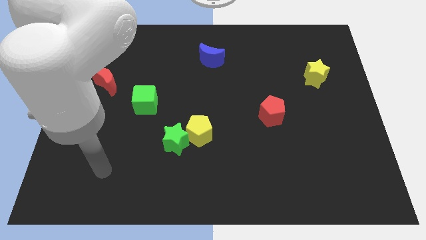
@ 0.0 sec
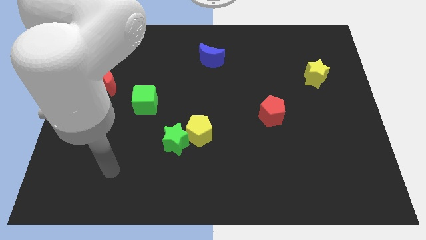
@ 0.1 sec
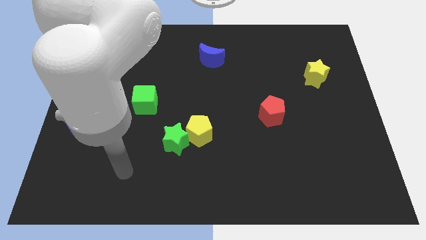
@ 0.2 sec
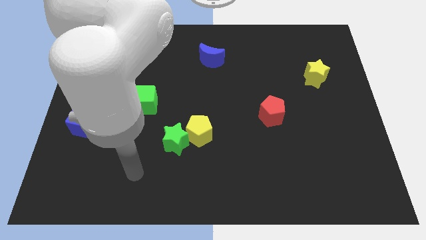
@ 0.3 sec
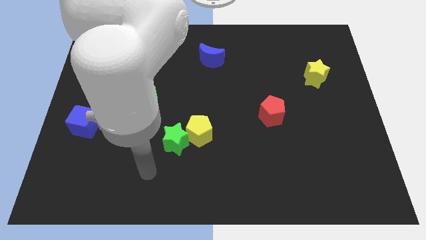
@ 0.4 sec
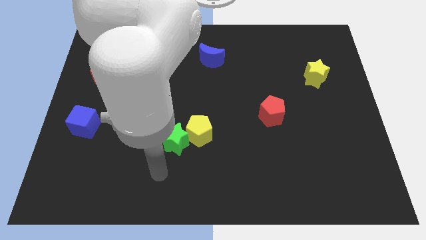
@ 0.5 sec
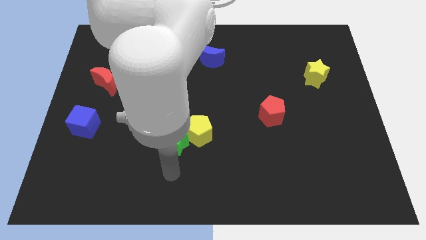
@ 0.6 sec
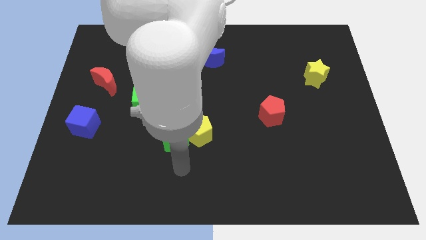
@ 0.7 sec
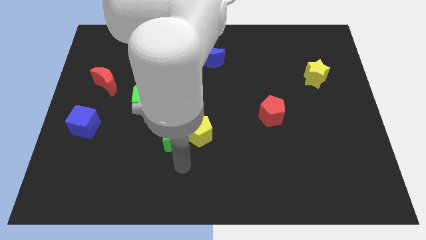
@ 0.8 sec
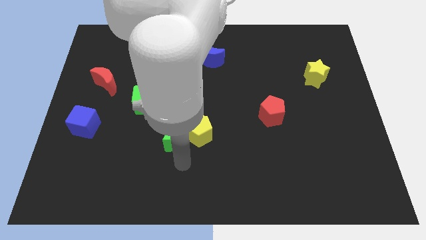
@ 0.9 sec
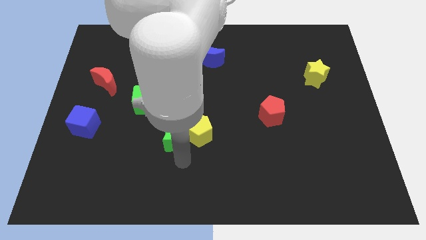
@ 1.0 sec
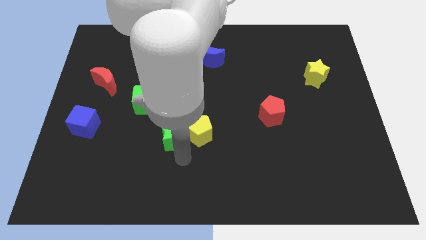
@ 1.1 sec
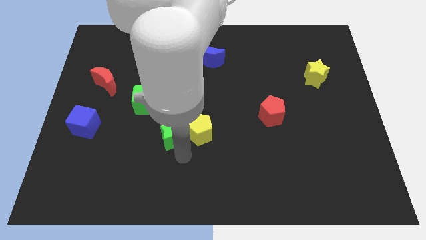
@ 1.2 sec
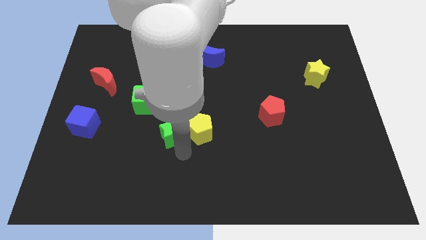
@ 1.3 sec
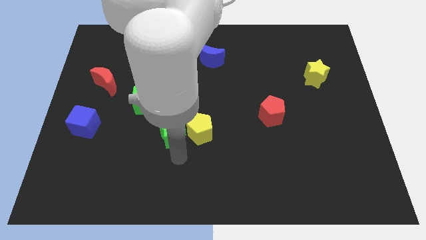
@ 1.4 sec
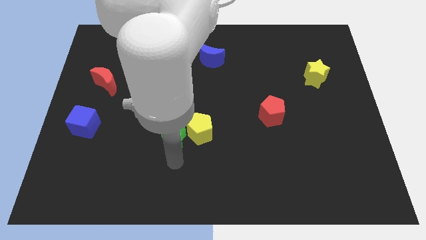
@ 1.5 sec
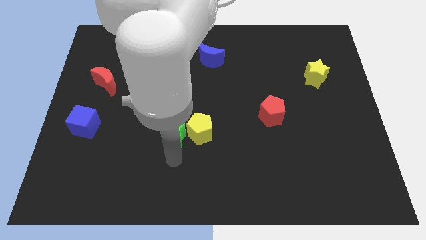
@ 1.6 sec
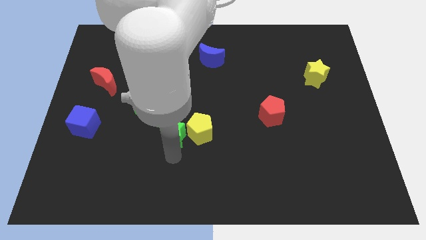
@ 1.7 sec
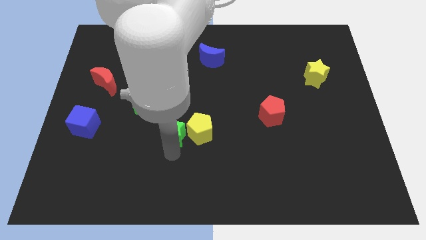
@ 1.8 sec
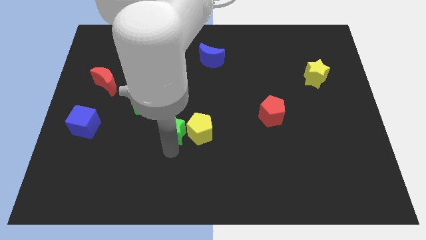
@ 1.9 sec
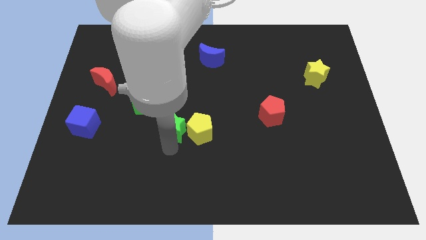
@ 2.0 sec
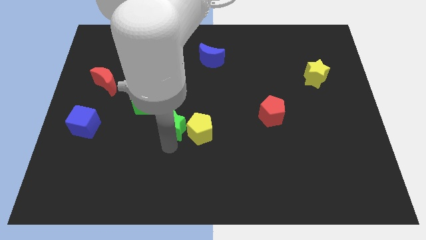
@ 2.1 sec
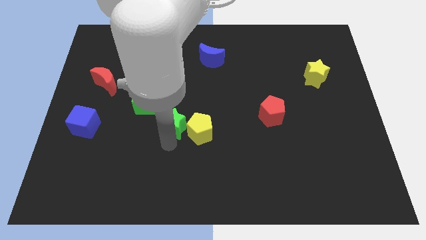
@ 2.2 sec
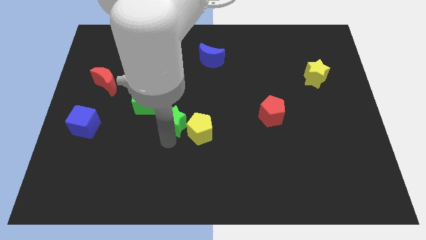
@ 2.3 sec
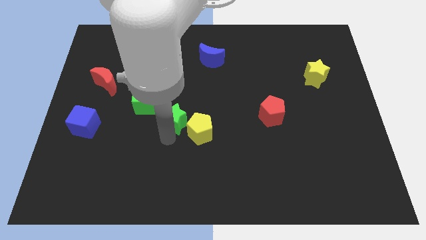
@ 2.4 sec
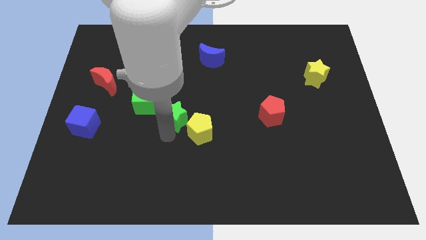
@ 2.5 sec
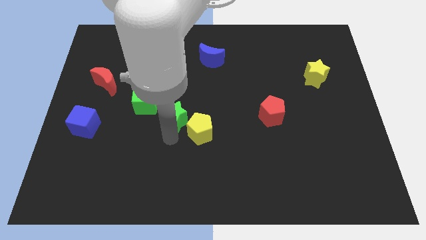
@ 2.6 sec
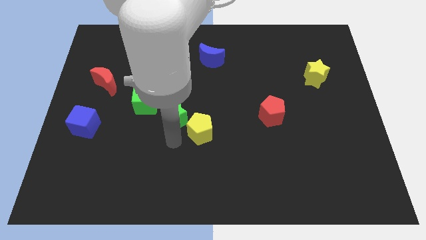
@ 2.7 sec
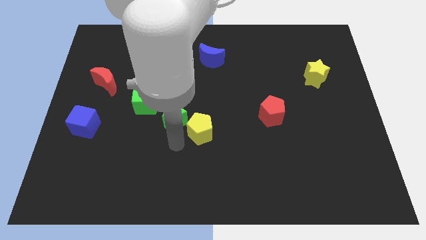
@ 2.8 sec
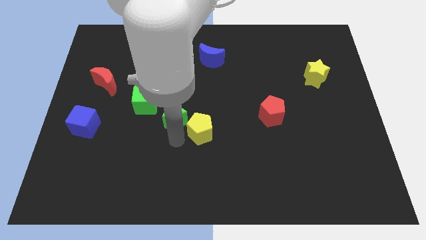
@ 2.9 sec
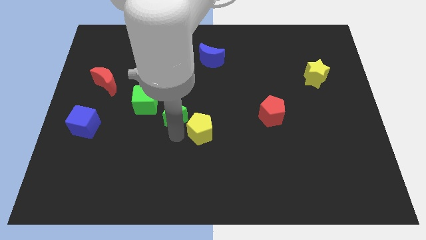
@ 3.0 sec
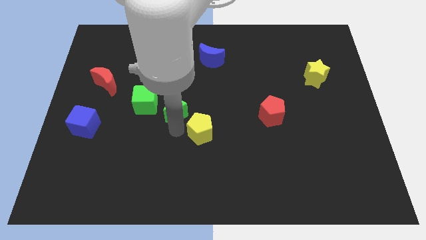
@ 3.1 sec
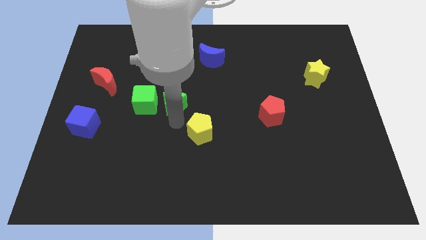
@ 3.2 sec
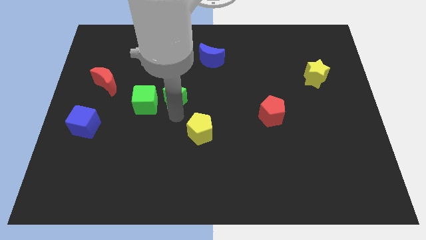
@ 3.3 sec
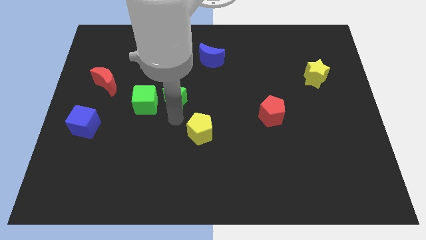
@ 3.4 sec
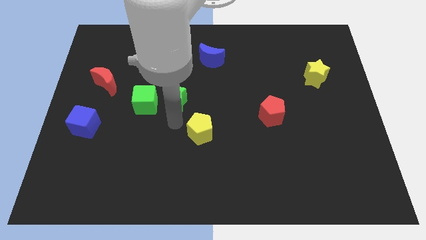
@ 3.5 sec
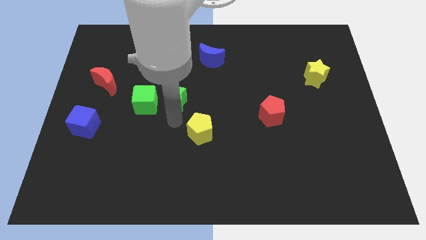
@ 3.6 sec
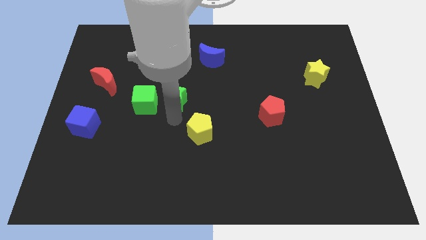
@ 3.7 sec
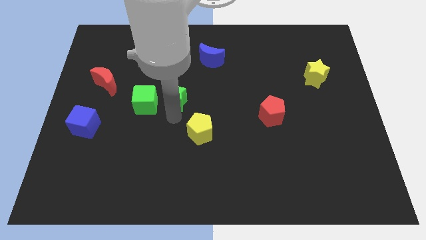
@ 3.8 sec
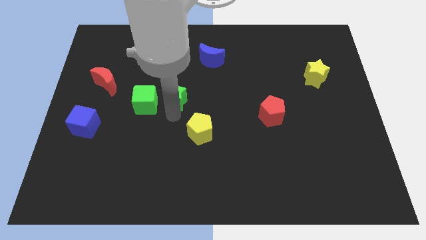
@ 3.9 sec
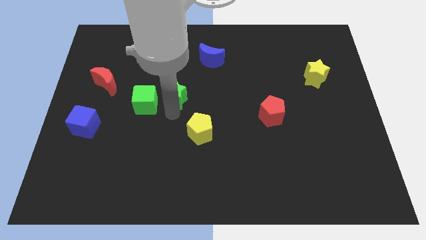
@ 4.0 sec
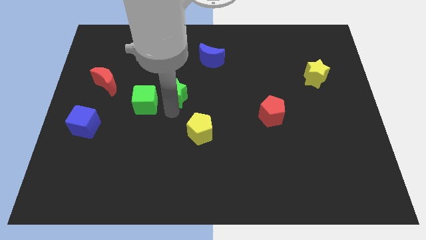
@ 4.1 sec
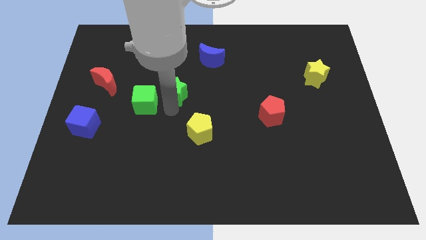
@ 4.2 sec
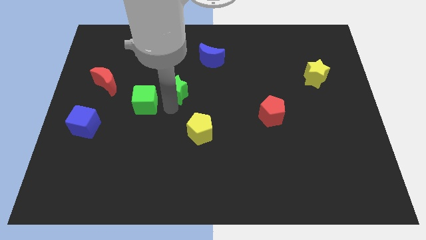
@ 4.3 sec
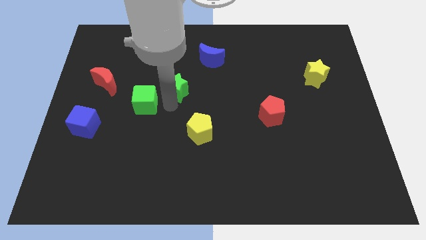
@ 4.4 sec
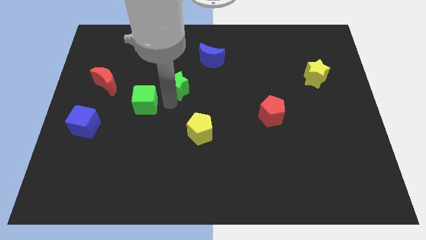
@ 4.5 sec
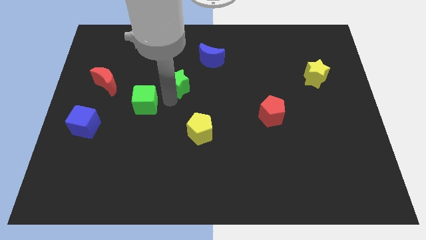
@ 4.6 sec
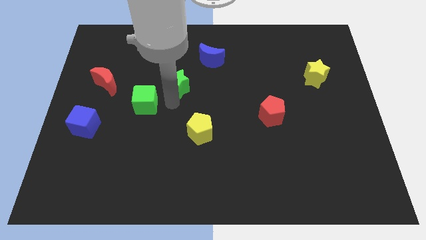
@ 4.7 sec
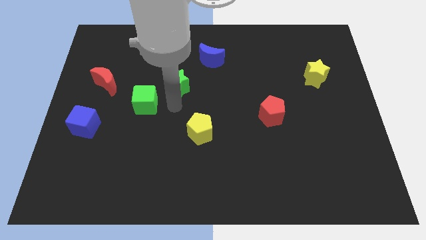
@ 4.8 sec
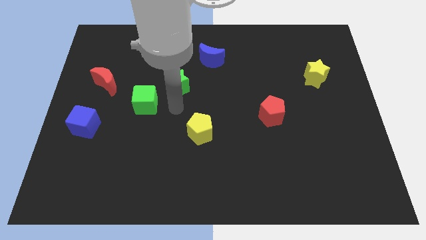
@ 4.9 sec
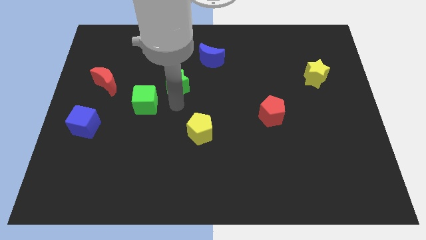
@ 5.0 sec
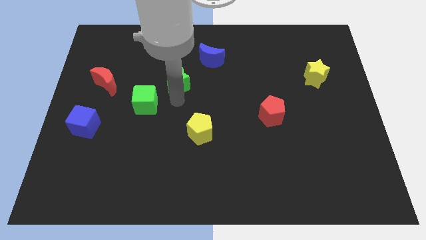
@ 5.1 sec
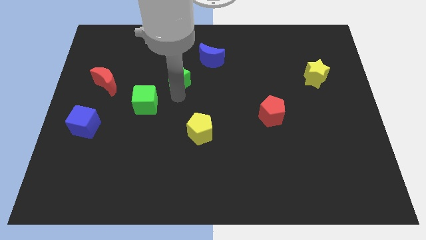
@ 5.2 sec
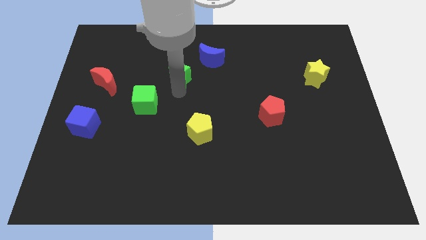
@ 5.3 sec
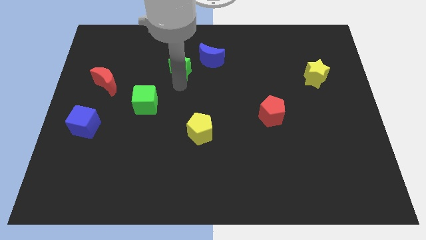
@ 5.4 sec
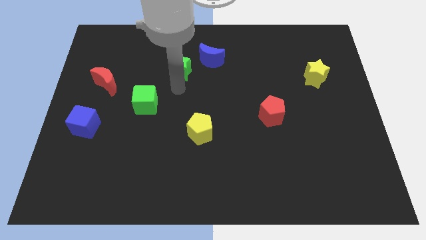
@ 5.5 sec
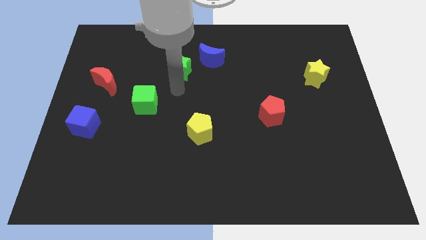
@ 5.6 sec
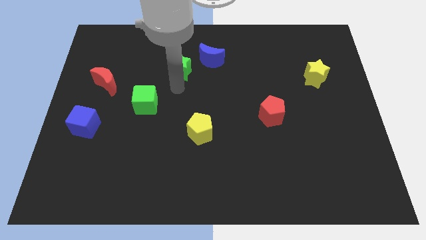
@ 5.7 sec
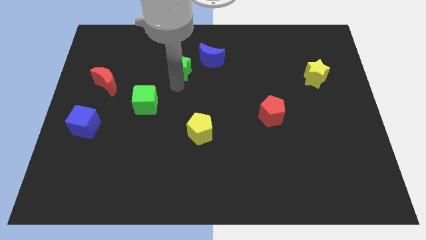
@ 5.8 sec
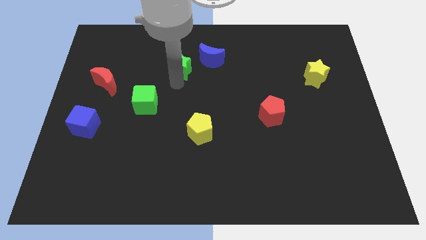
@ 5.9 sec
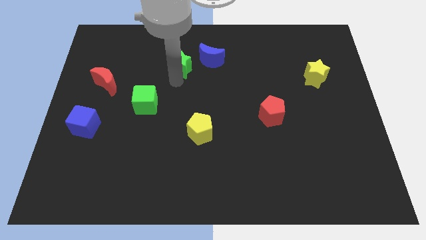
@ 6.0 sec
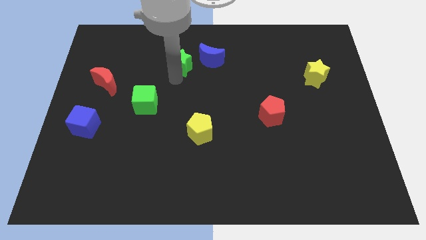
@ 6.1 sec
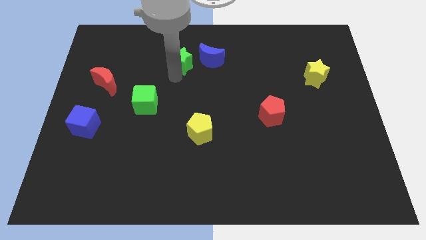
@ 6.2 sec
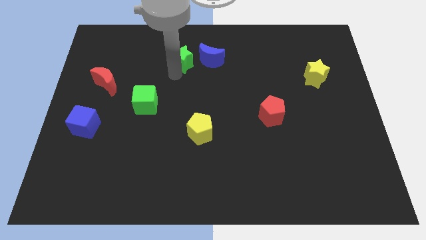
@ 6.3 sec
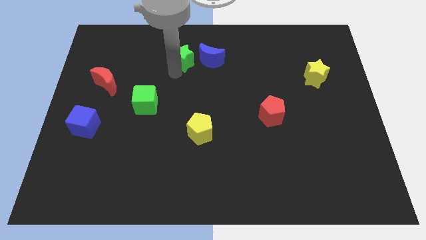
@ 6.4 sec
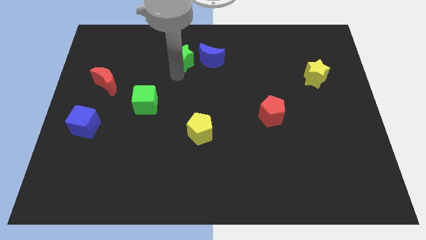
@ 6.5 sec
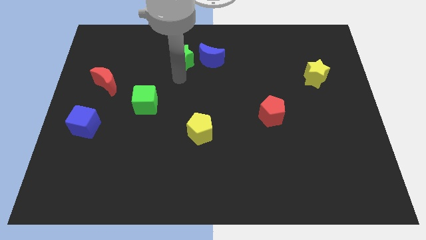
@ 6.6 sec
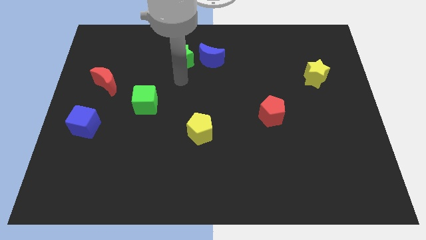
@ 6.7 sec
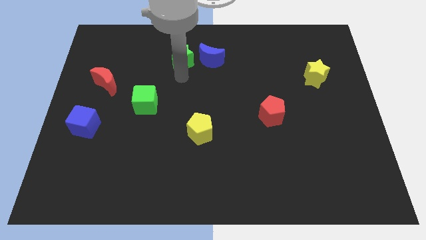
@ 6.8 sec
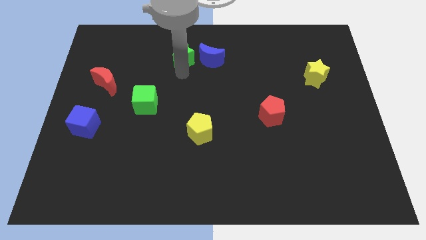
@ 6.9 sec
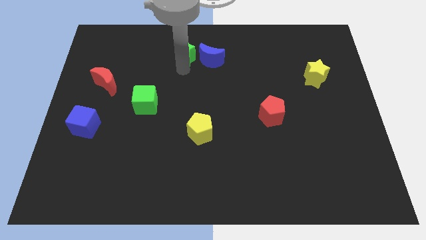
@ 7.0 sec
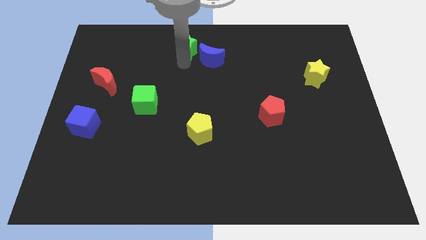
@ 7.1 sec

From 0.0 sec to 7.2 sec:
put the green star to the top side

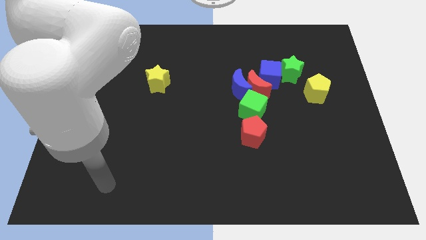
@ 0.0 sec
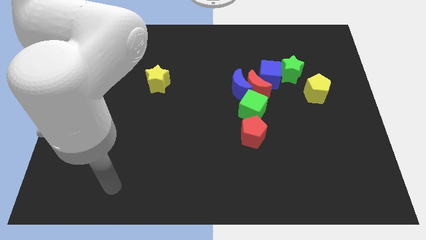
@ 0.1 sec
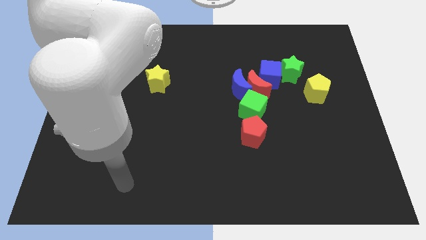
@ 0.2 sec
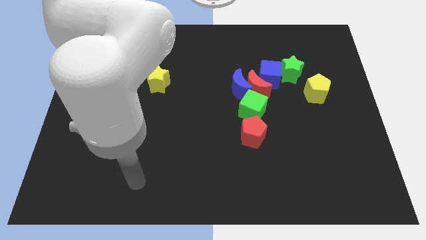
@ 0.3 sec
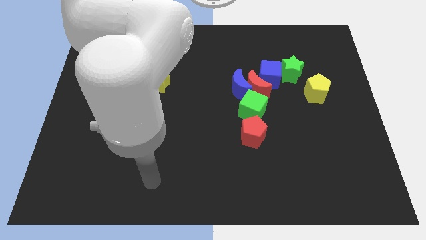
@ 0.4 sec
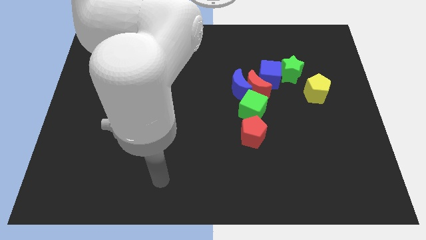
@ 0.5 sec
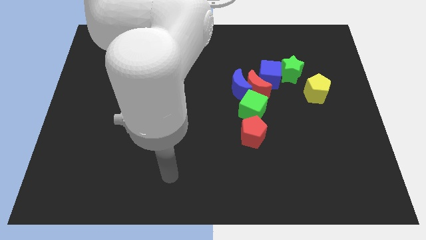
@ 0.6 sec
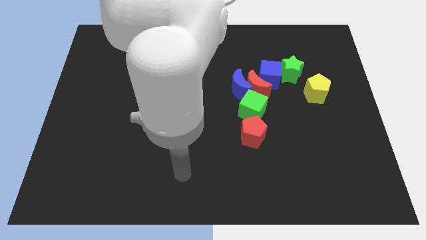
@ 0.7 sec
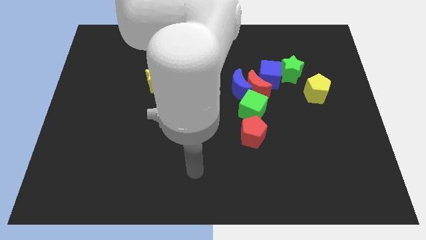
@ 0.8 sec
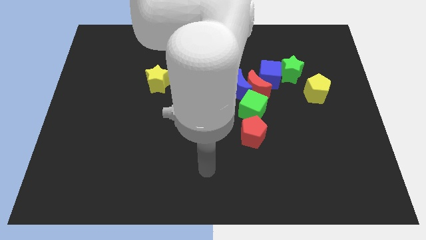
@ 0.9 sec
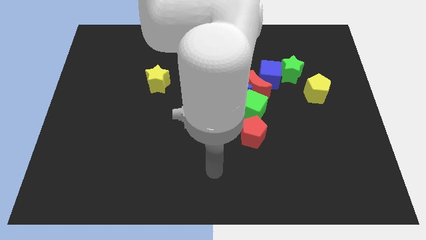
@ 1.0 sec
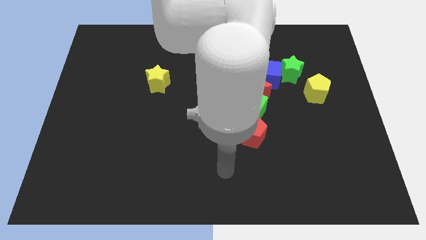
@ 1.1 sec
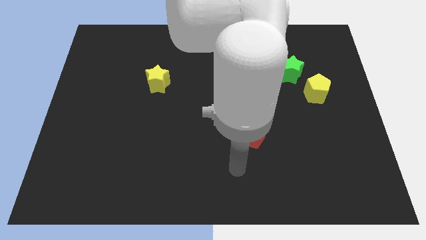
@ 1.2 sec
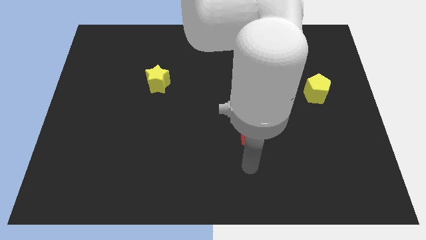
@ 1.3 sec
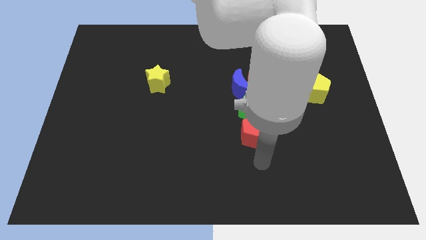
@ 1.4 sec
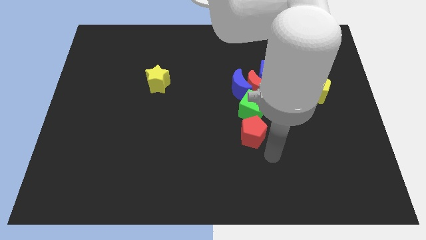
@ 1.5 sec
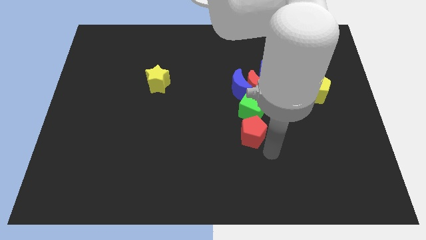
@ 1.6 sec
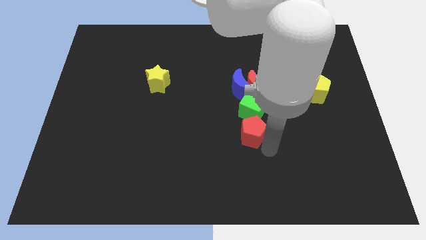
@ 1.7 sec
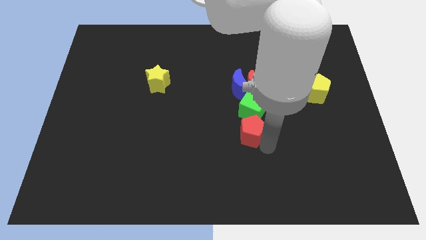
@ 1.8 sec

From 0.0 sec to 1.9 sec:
push the red pentagon to the middle of the board
